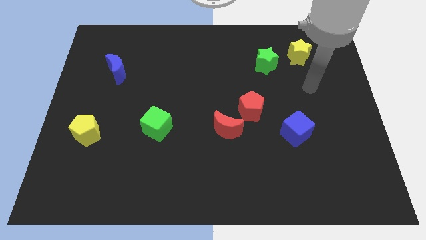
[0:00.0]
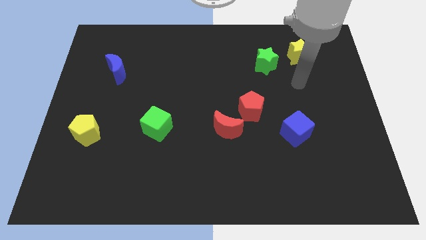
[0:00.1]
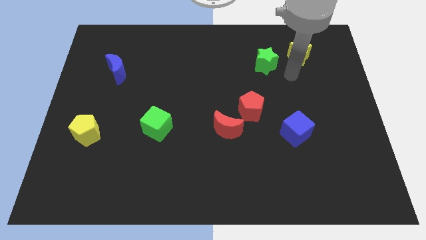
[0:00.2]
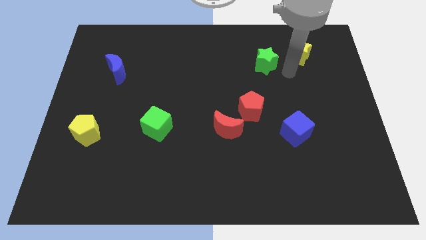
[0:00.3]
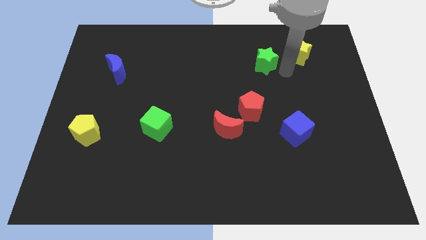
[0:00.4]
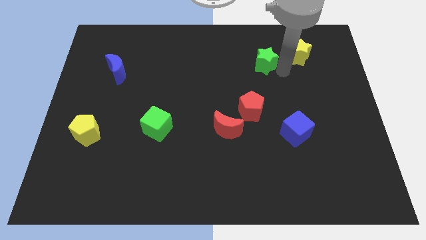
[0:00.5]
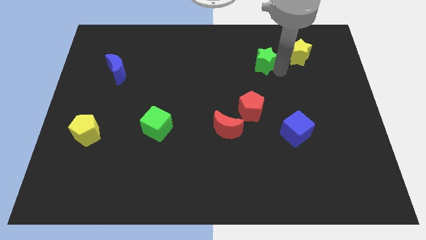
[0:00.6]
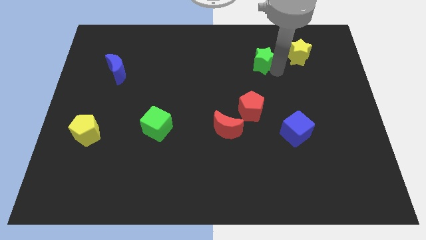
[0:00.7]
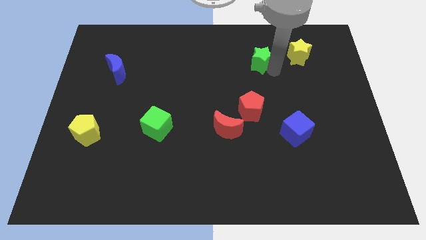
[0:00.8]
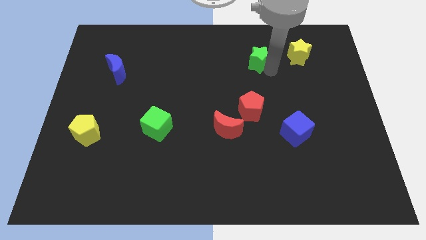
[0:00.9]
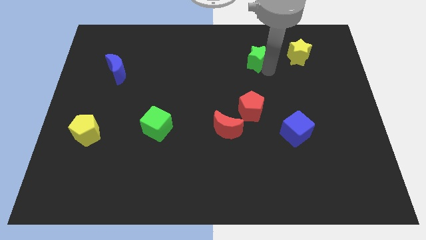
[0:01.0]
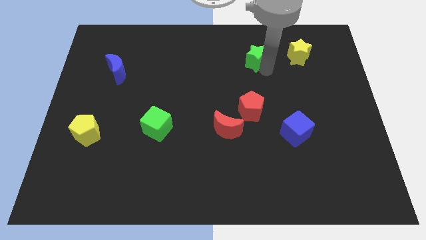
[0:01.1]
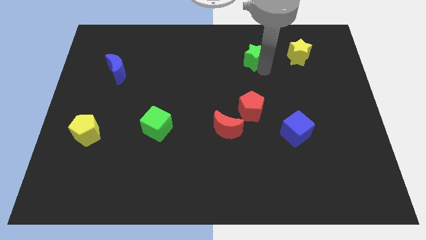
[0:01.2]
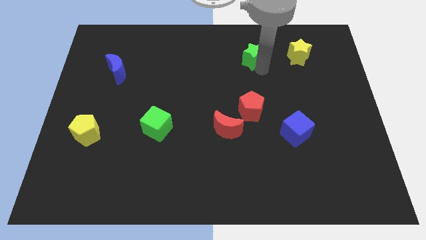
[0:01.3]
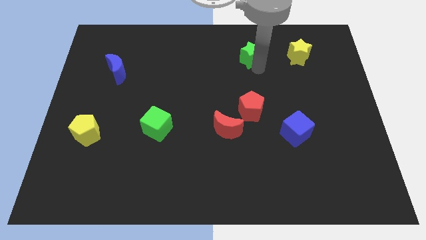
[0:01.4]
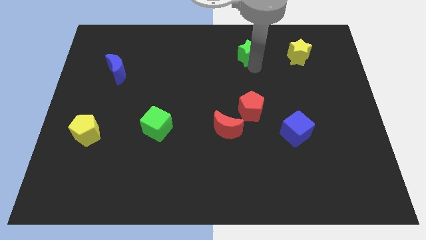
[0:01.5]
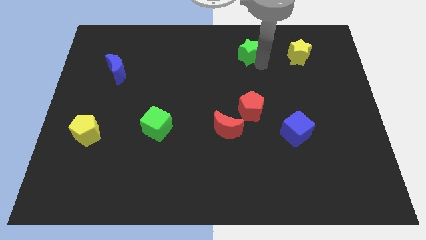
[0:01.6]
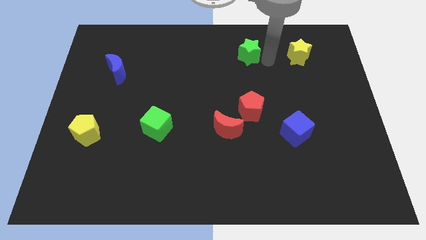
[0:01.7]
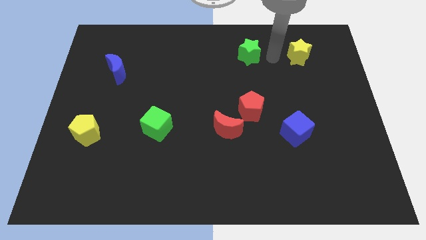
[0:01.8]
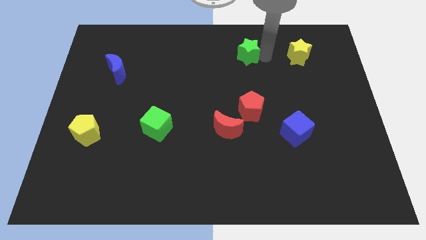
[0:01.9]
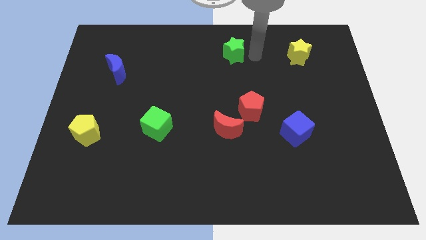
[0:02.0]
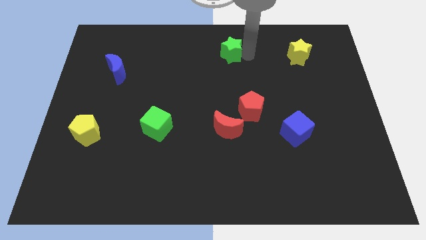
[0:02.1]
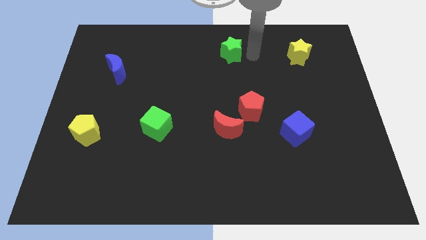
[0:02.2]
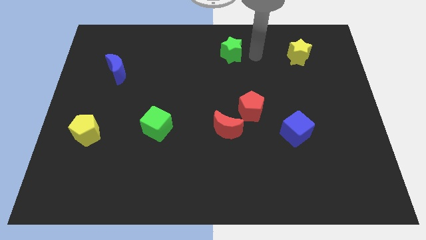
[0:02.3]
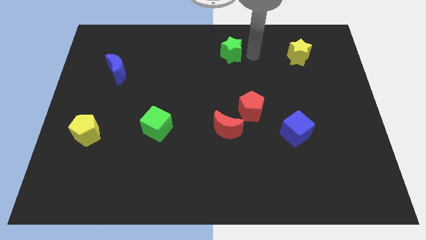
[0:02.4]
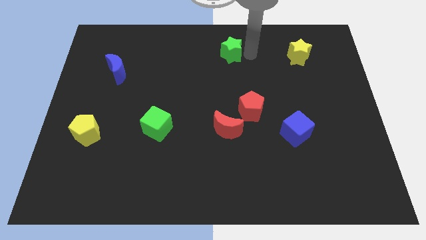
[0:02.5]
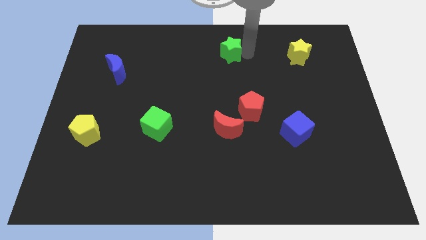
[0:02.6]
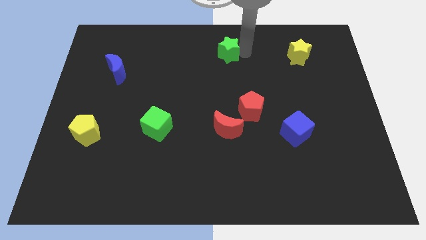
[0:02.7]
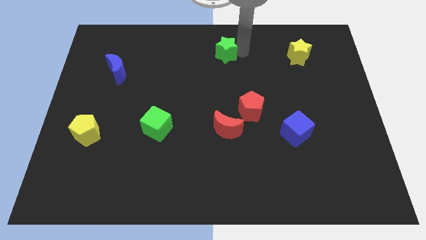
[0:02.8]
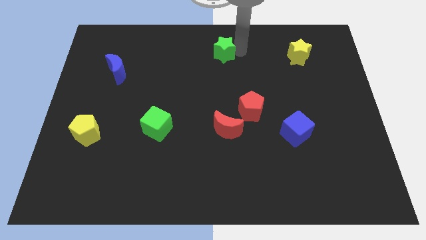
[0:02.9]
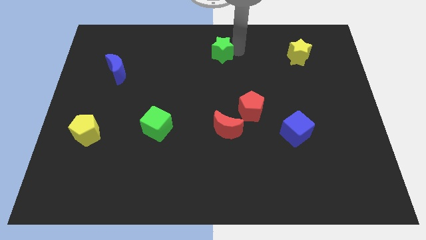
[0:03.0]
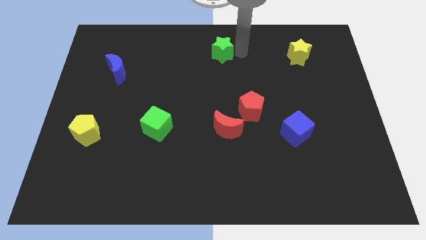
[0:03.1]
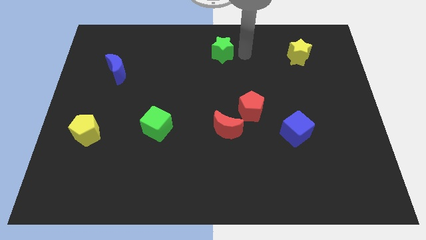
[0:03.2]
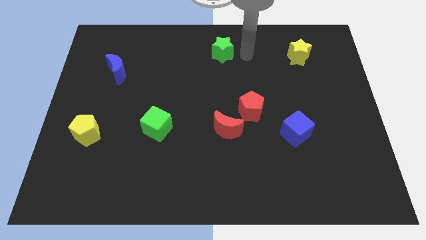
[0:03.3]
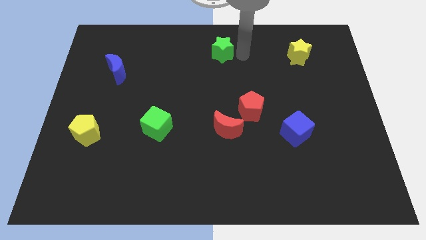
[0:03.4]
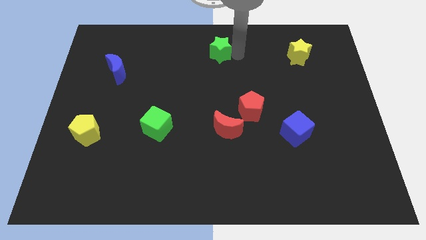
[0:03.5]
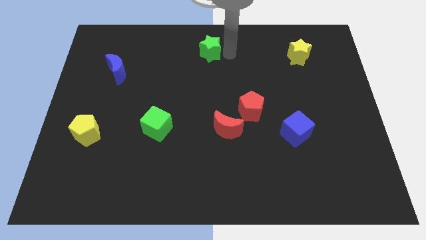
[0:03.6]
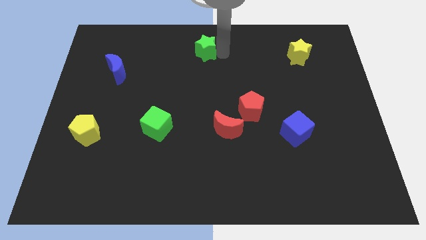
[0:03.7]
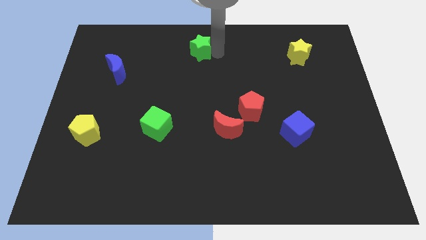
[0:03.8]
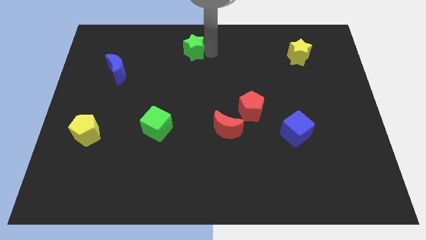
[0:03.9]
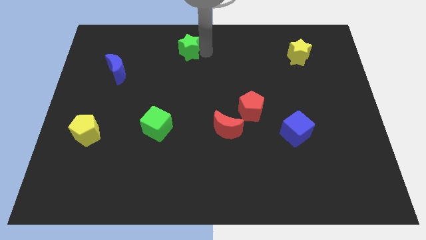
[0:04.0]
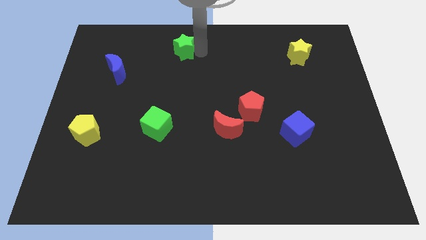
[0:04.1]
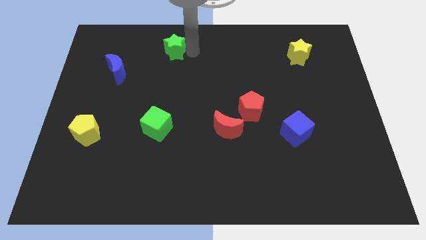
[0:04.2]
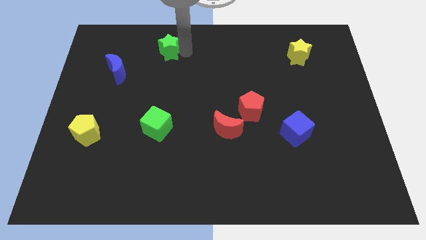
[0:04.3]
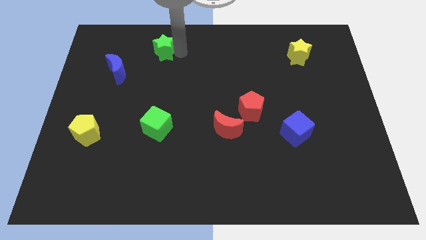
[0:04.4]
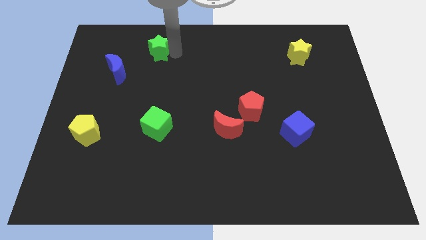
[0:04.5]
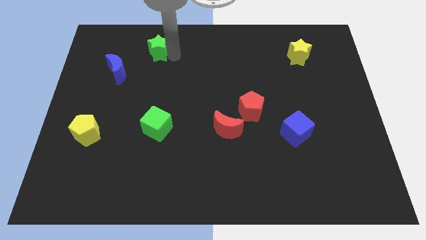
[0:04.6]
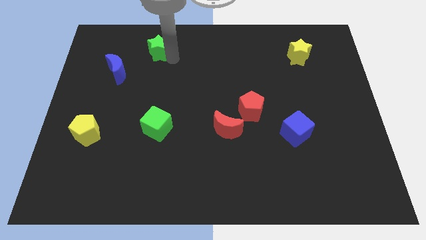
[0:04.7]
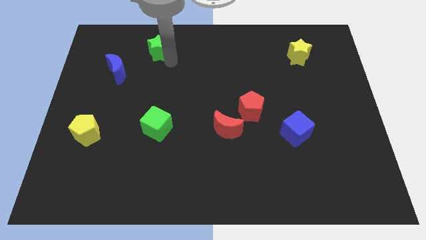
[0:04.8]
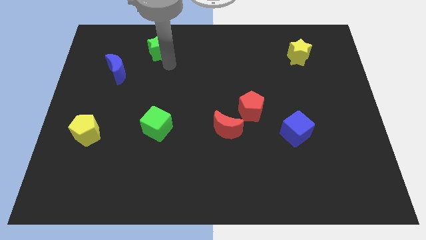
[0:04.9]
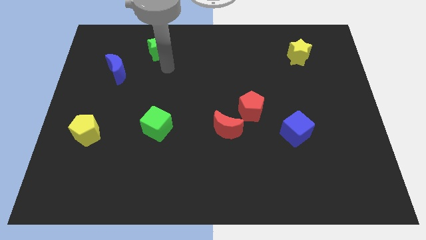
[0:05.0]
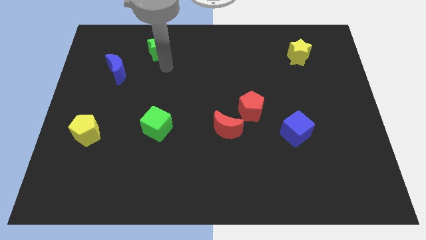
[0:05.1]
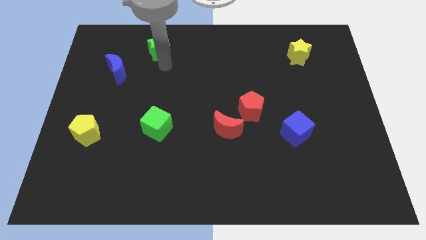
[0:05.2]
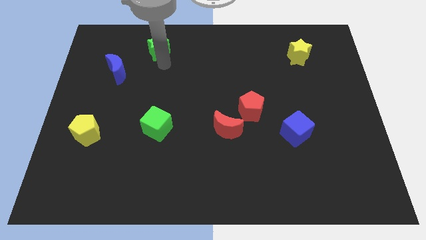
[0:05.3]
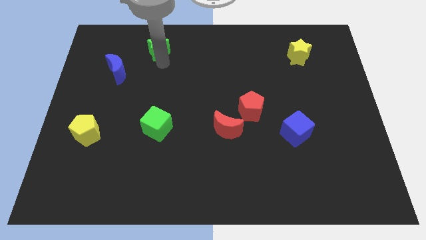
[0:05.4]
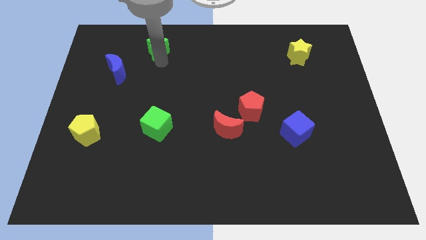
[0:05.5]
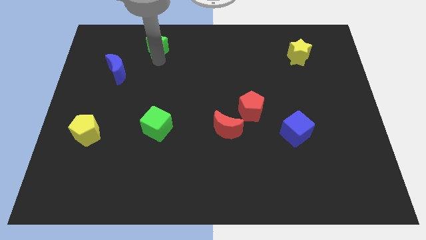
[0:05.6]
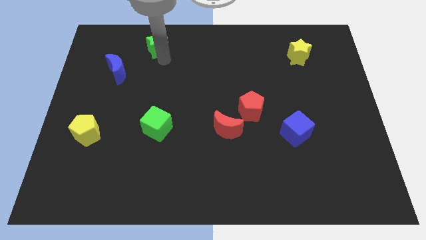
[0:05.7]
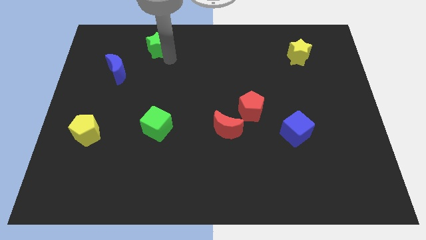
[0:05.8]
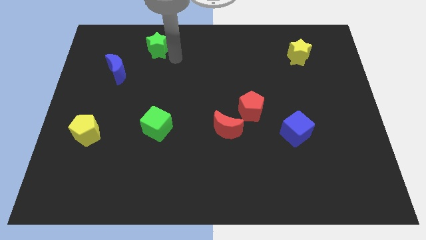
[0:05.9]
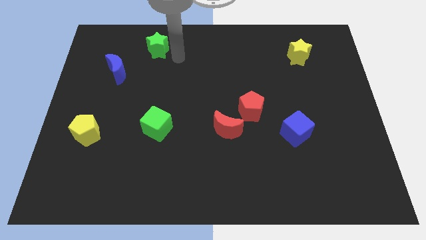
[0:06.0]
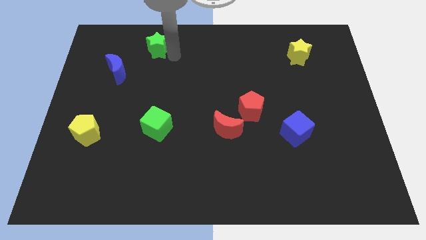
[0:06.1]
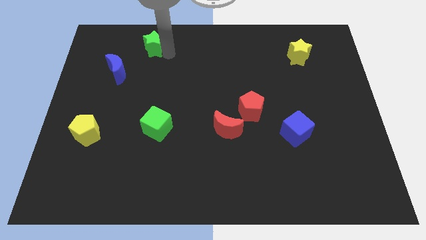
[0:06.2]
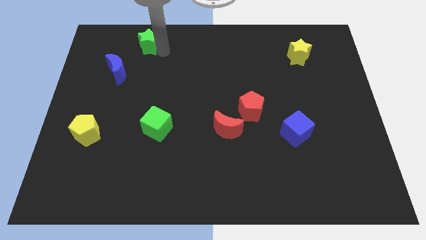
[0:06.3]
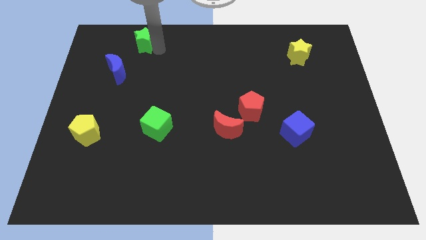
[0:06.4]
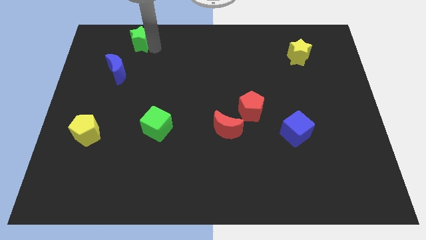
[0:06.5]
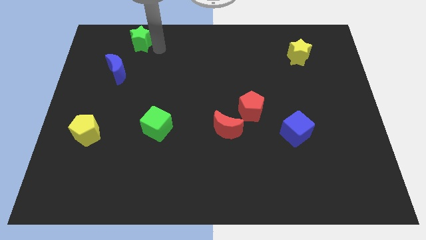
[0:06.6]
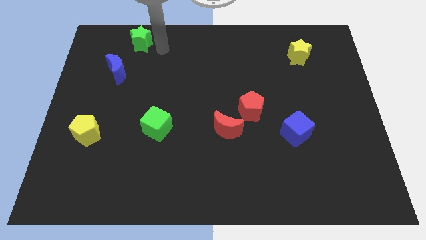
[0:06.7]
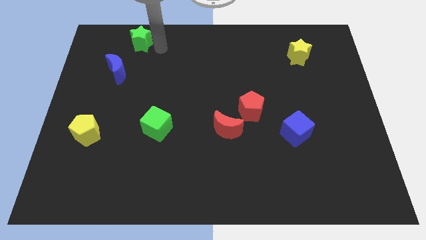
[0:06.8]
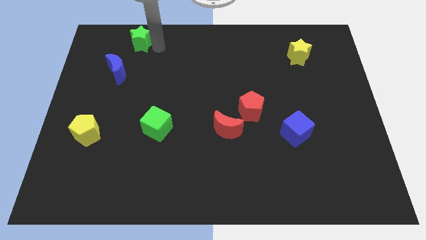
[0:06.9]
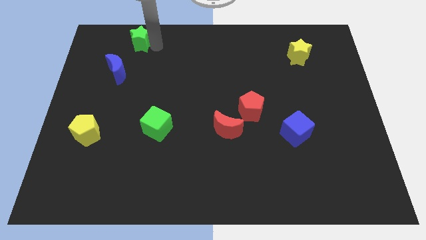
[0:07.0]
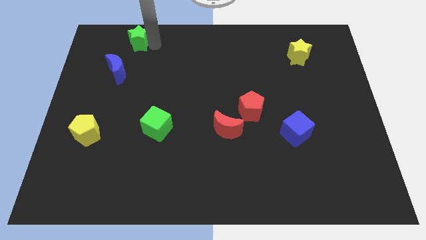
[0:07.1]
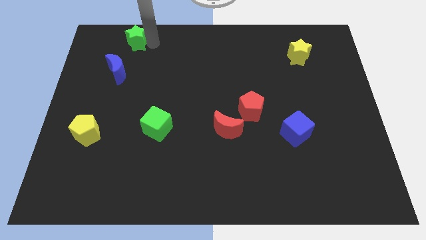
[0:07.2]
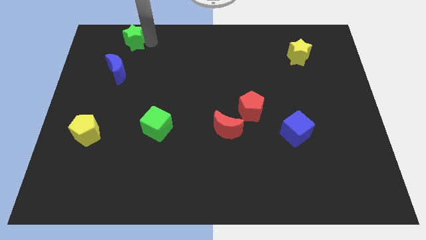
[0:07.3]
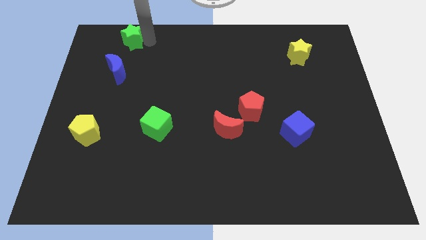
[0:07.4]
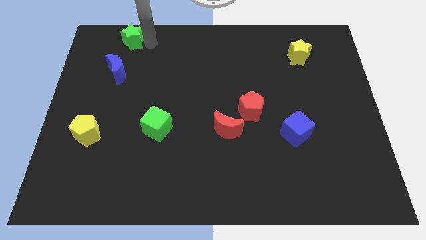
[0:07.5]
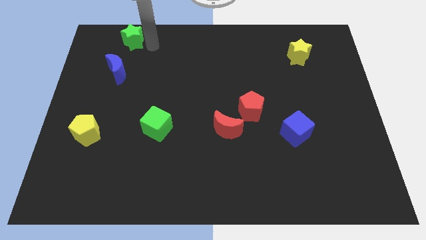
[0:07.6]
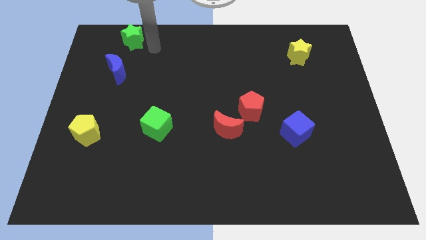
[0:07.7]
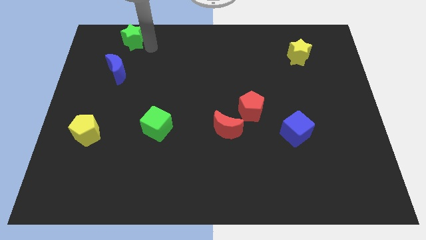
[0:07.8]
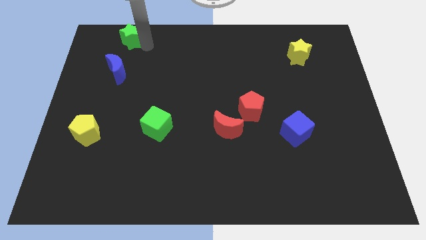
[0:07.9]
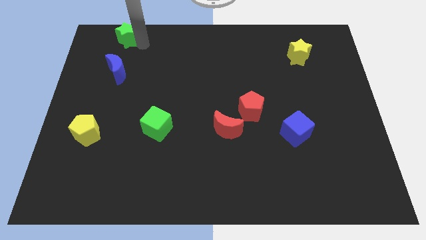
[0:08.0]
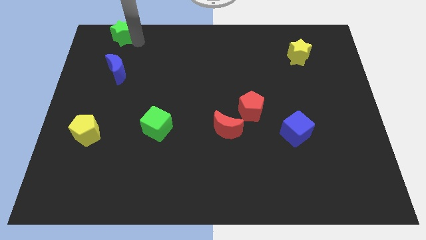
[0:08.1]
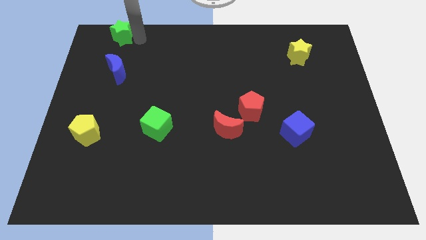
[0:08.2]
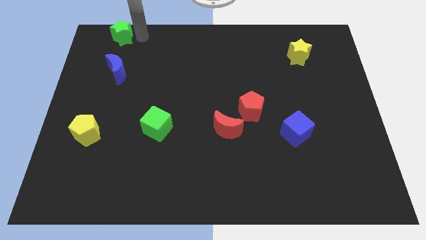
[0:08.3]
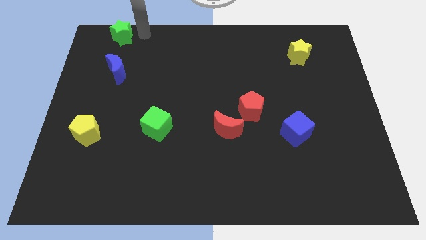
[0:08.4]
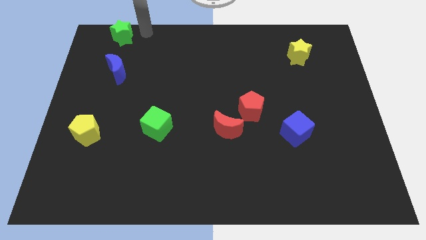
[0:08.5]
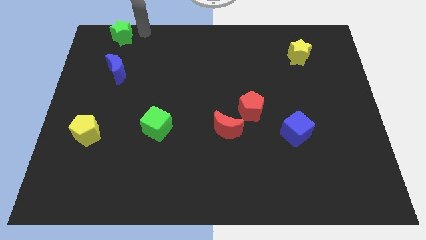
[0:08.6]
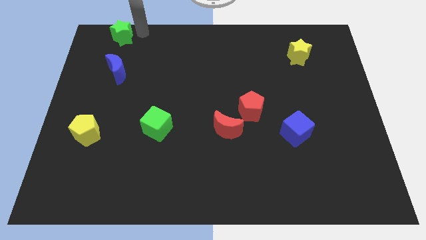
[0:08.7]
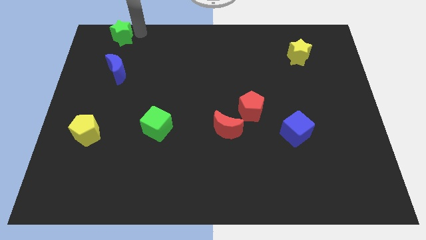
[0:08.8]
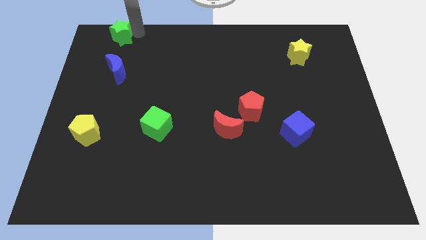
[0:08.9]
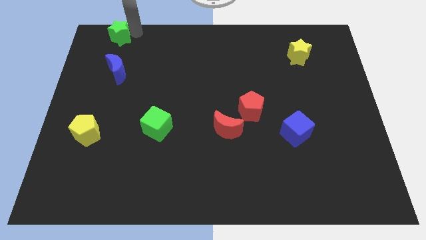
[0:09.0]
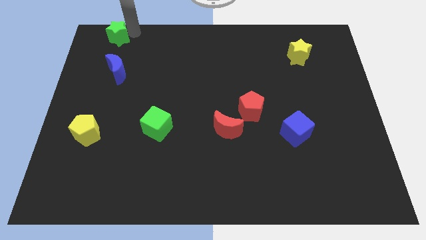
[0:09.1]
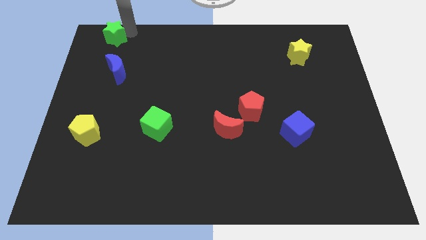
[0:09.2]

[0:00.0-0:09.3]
put the green star to the top left
